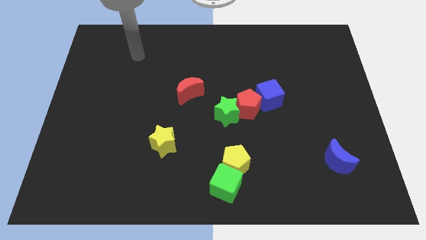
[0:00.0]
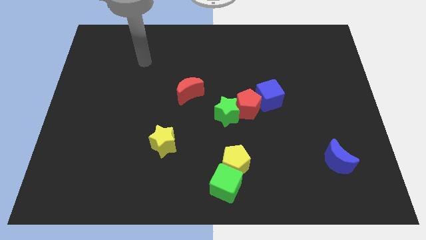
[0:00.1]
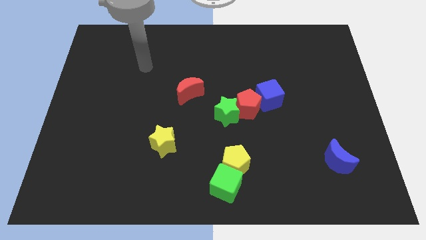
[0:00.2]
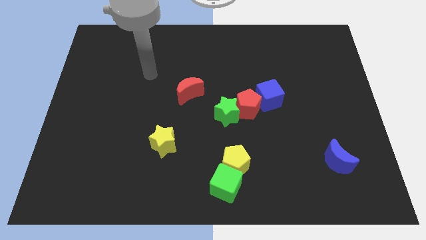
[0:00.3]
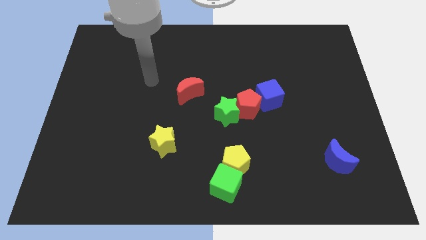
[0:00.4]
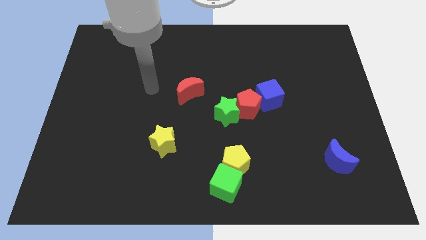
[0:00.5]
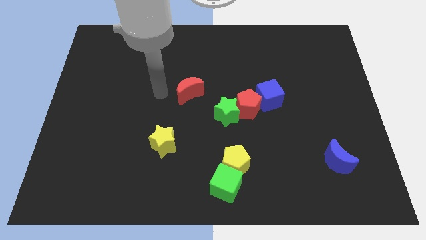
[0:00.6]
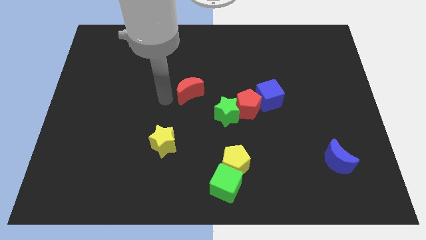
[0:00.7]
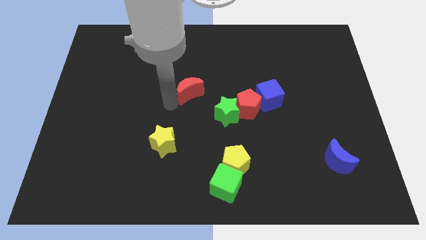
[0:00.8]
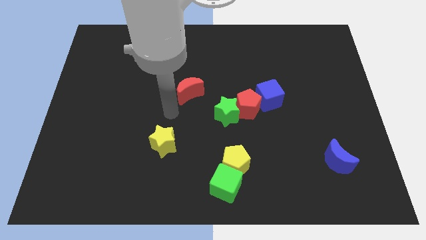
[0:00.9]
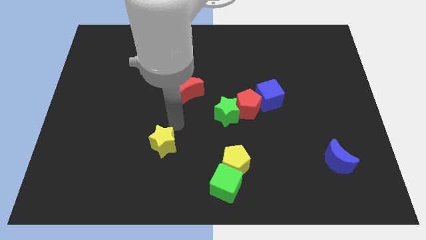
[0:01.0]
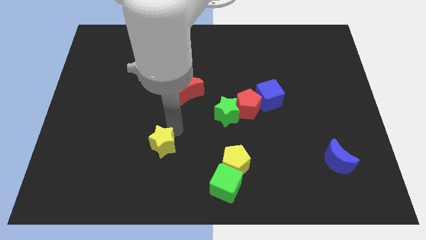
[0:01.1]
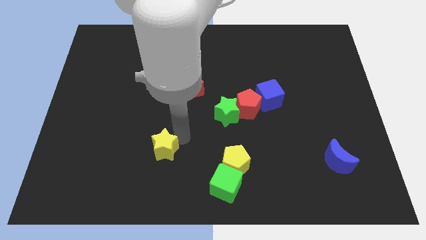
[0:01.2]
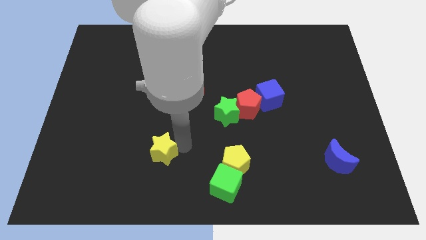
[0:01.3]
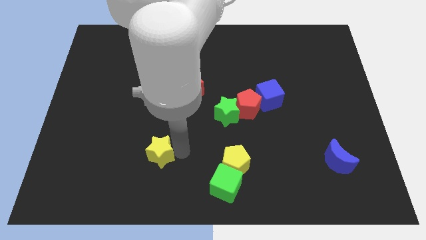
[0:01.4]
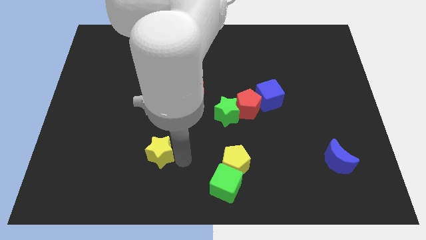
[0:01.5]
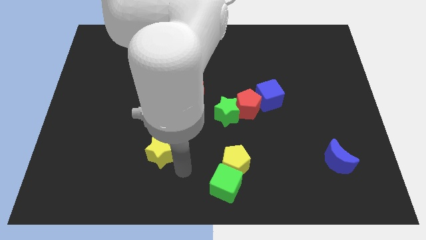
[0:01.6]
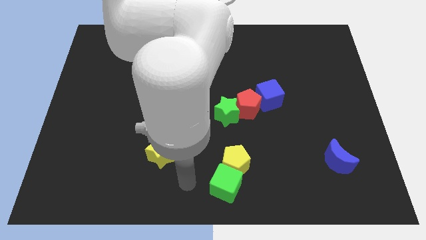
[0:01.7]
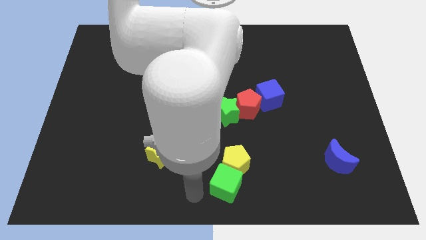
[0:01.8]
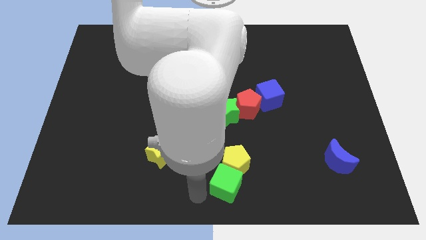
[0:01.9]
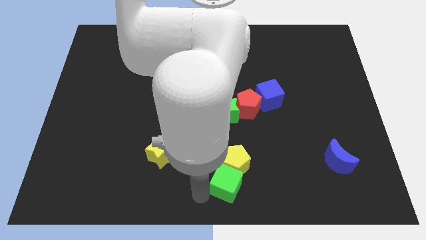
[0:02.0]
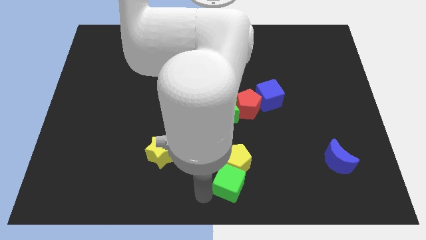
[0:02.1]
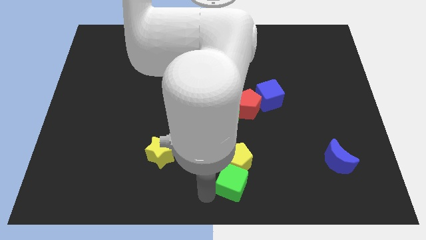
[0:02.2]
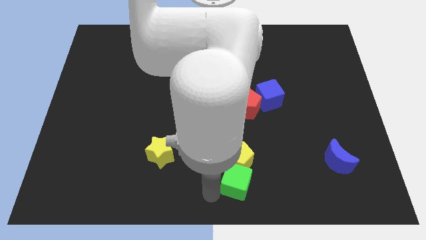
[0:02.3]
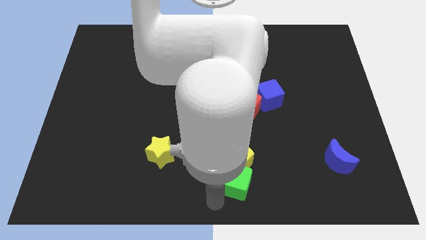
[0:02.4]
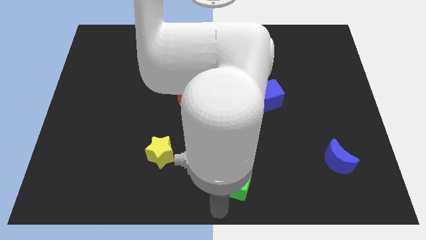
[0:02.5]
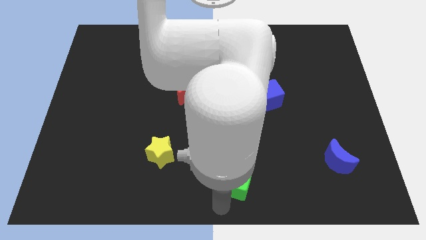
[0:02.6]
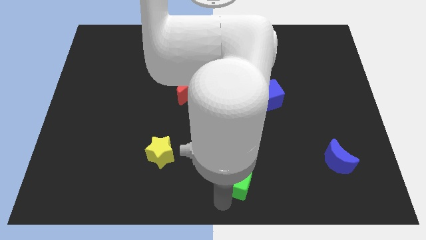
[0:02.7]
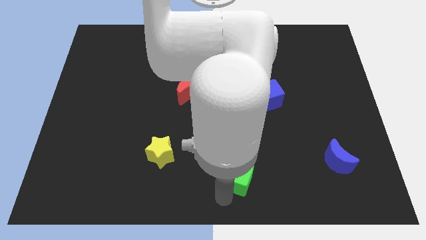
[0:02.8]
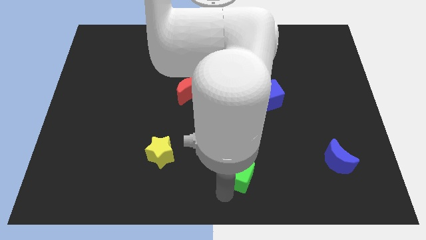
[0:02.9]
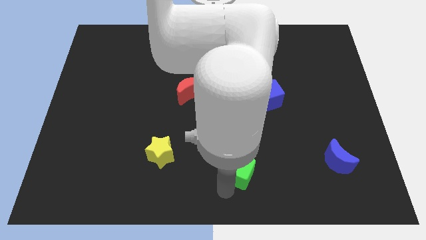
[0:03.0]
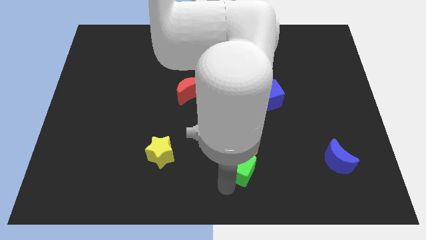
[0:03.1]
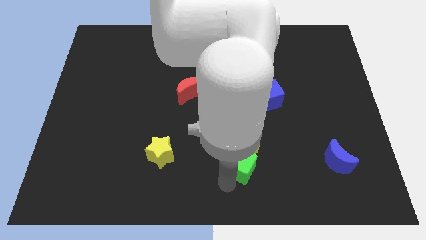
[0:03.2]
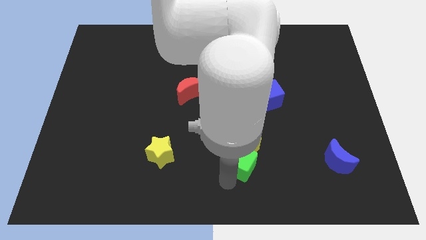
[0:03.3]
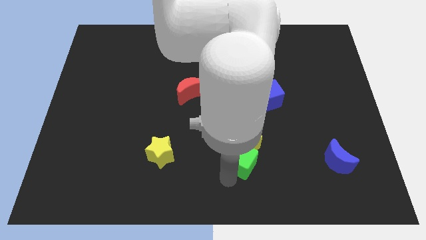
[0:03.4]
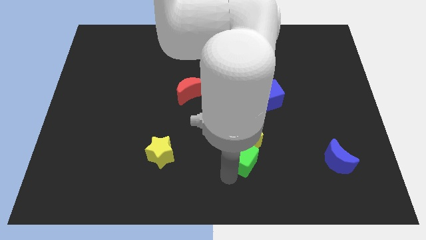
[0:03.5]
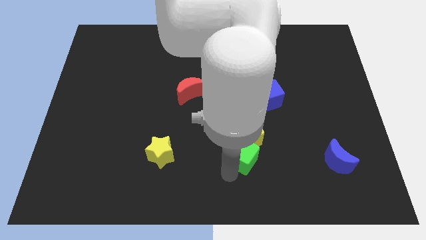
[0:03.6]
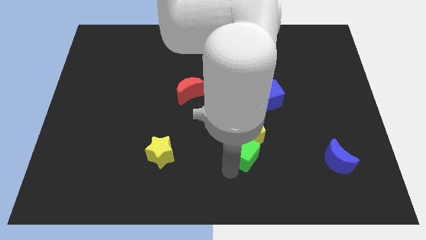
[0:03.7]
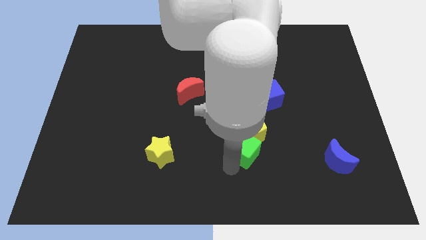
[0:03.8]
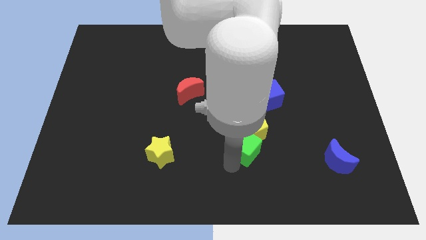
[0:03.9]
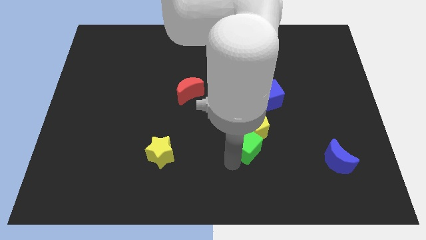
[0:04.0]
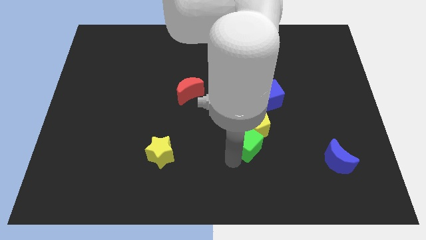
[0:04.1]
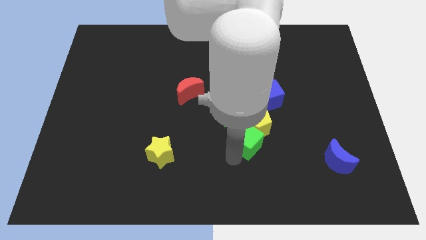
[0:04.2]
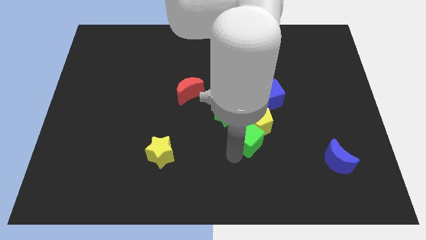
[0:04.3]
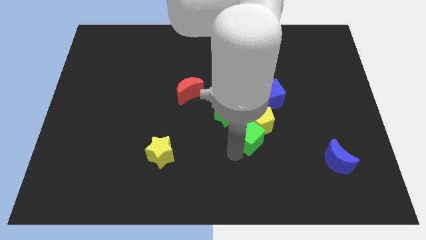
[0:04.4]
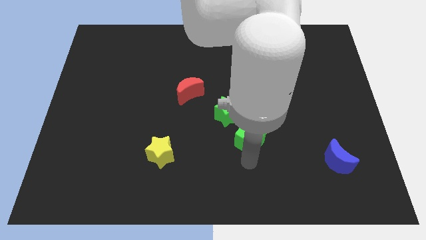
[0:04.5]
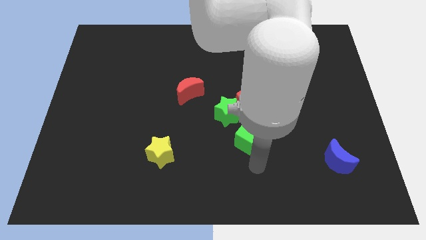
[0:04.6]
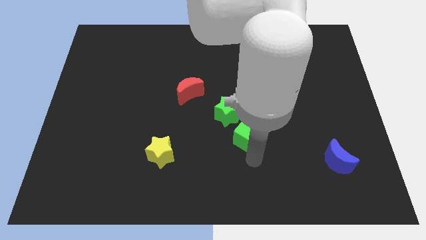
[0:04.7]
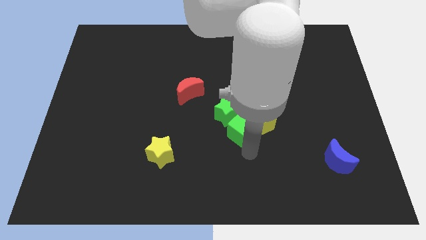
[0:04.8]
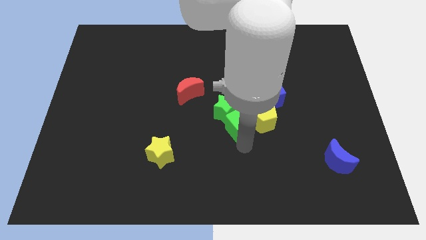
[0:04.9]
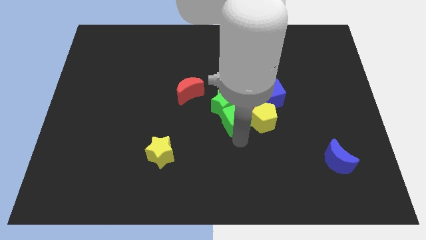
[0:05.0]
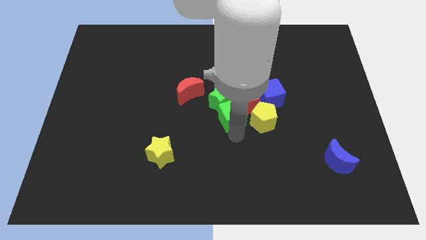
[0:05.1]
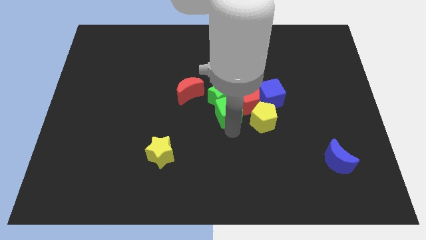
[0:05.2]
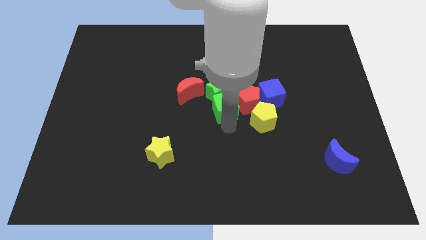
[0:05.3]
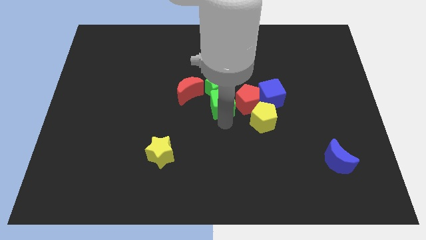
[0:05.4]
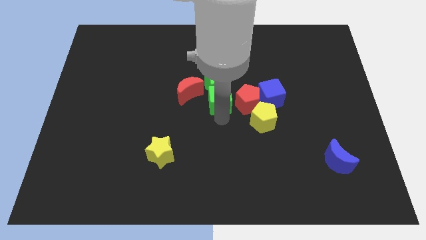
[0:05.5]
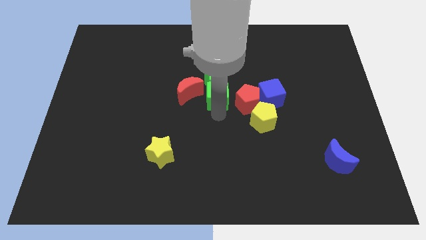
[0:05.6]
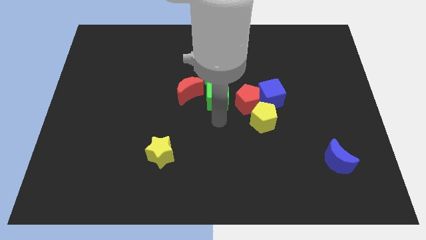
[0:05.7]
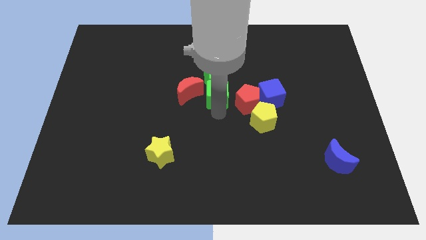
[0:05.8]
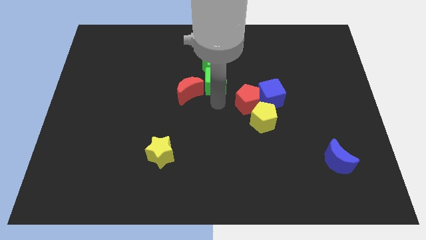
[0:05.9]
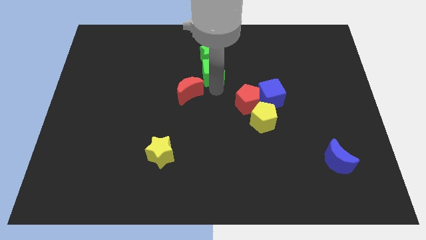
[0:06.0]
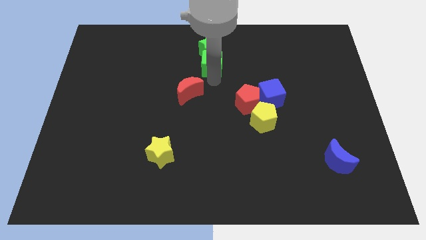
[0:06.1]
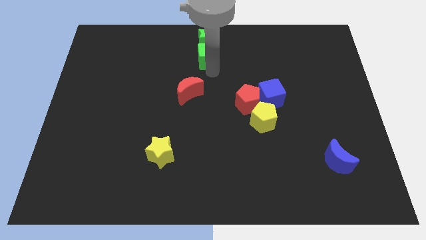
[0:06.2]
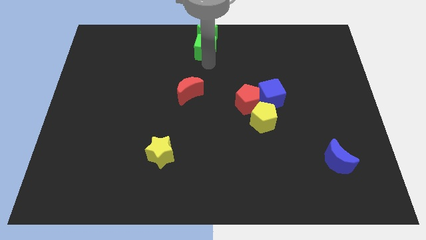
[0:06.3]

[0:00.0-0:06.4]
put the green cube to the towards your base
